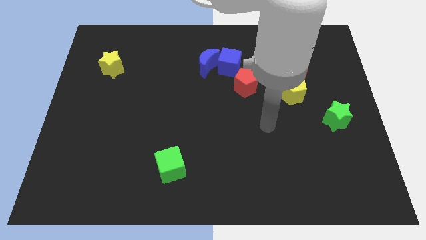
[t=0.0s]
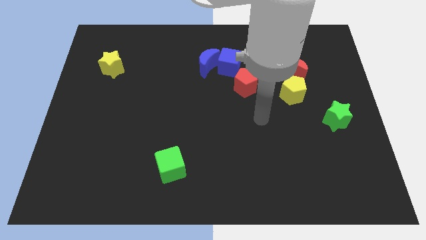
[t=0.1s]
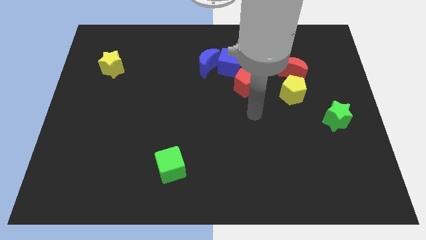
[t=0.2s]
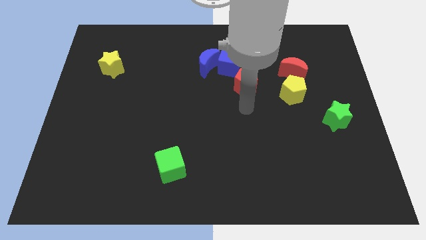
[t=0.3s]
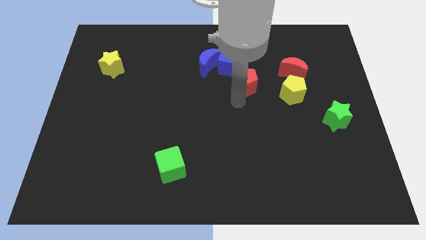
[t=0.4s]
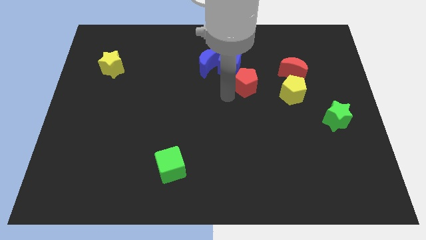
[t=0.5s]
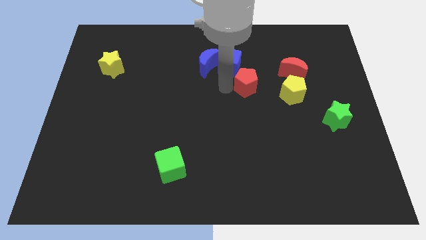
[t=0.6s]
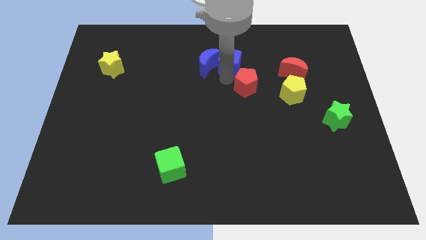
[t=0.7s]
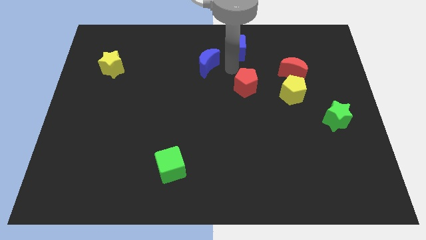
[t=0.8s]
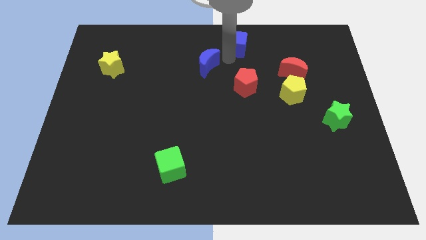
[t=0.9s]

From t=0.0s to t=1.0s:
separate the blue moon from the blue cube

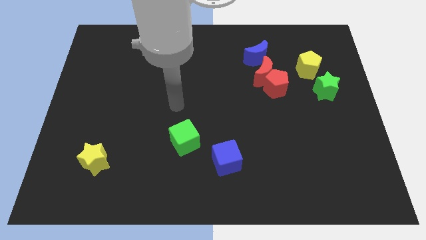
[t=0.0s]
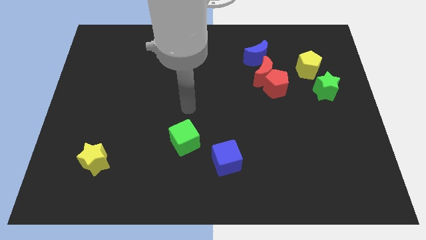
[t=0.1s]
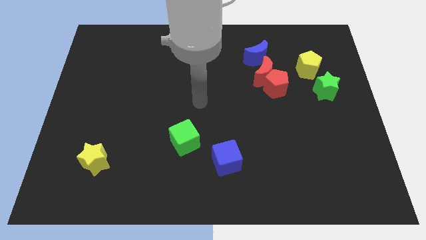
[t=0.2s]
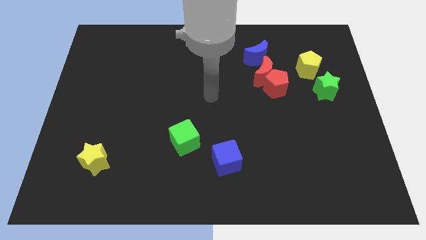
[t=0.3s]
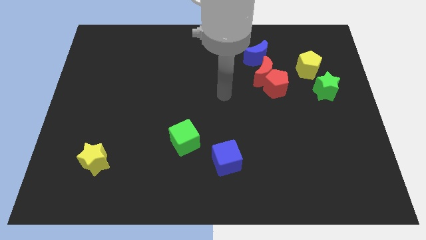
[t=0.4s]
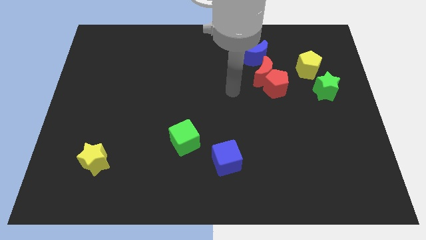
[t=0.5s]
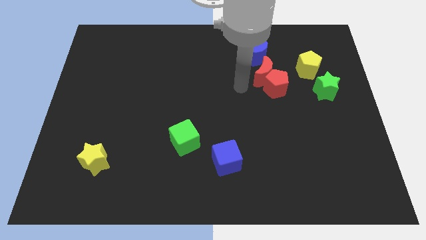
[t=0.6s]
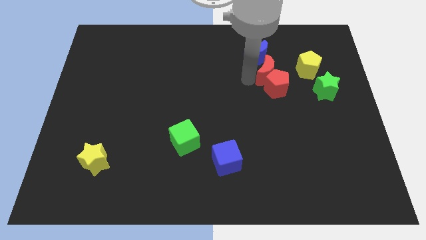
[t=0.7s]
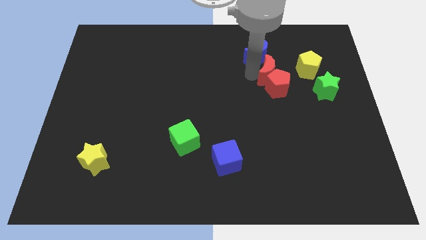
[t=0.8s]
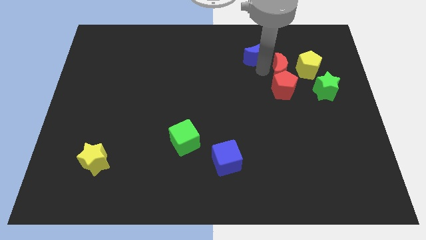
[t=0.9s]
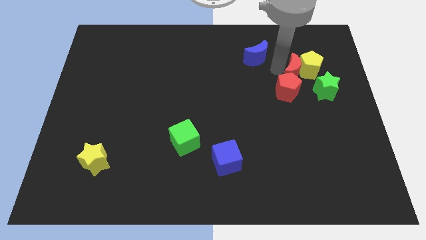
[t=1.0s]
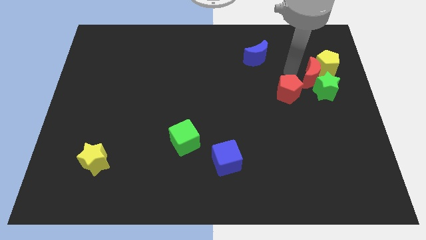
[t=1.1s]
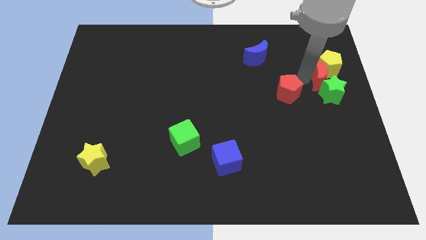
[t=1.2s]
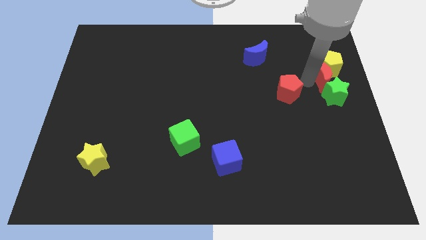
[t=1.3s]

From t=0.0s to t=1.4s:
pull the red pentagon apart from the red moon

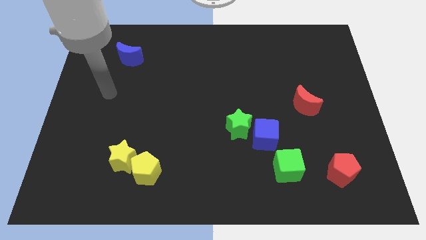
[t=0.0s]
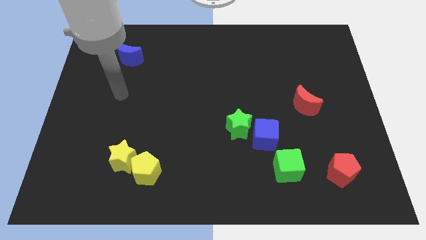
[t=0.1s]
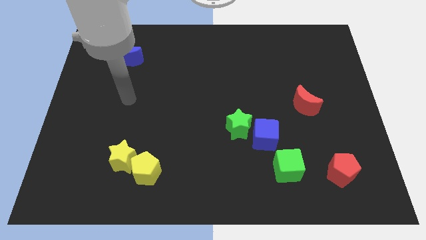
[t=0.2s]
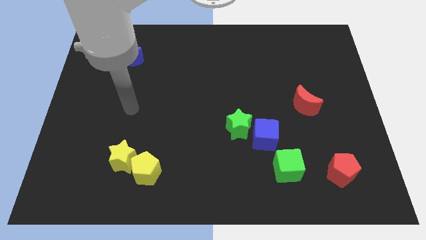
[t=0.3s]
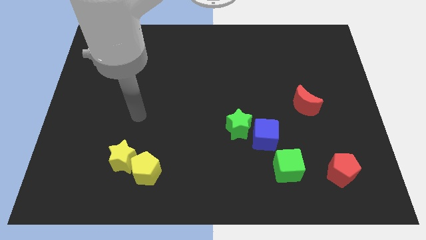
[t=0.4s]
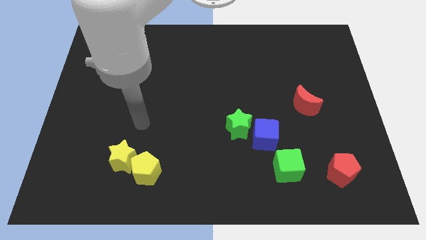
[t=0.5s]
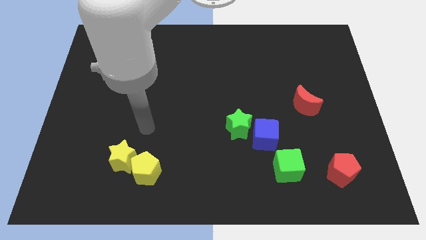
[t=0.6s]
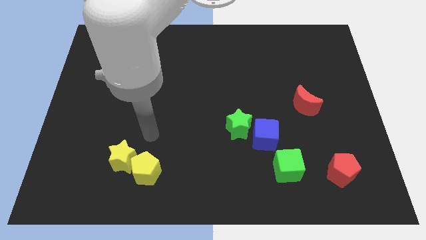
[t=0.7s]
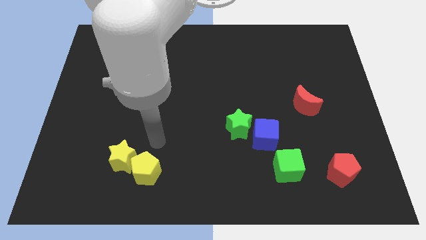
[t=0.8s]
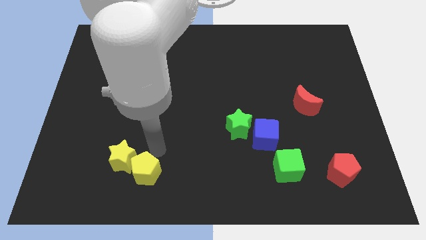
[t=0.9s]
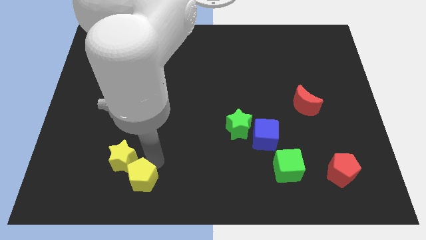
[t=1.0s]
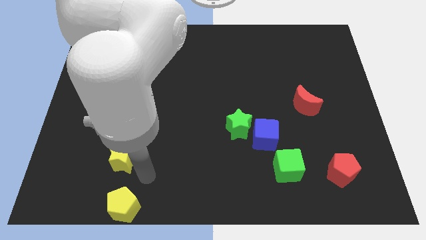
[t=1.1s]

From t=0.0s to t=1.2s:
pull the yellow star apart from the yellow pentagon

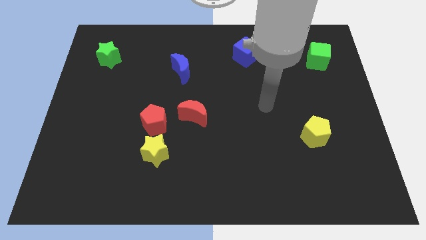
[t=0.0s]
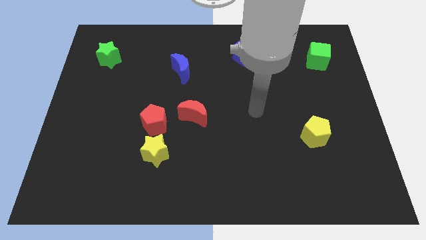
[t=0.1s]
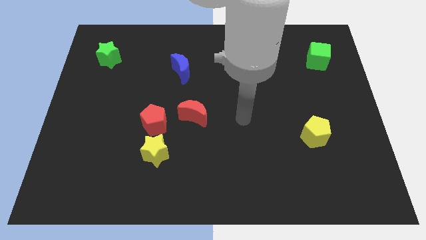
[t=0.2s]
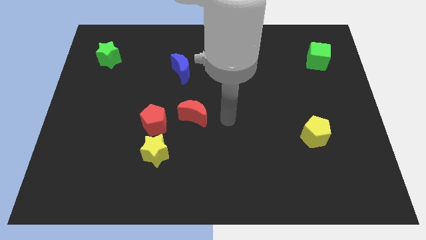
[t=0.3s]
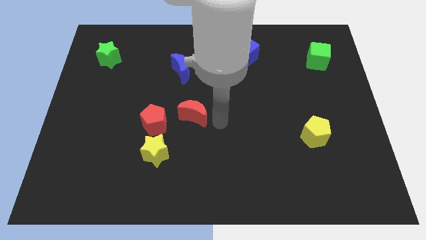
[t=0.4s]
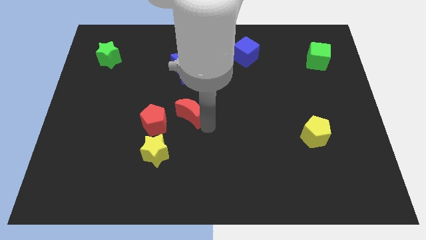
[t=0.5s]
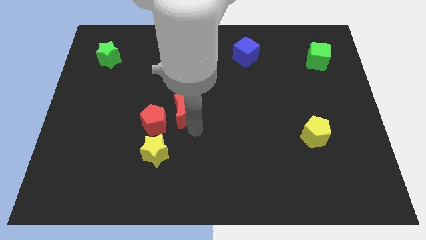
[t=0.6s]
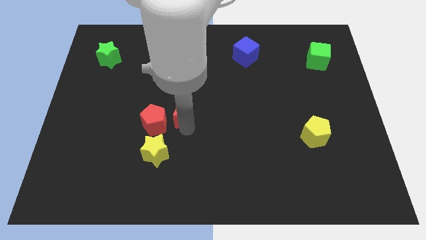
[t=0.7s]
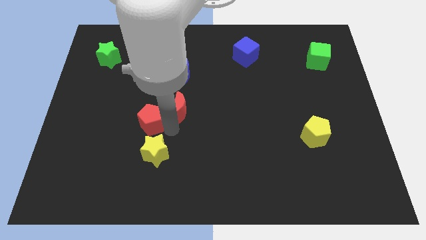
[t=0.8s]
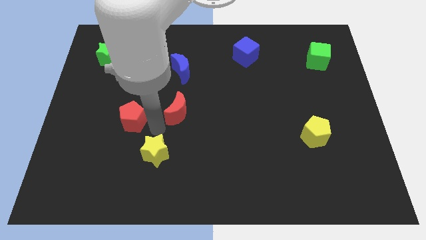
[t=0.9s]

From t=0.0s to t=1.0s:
move the yellow star away from the red pentagon

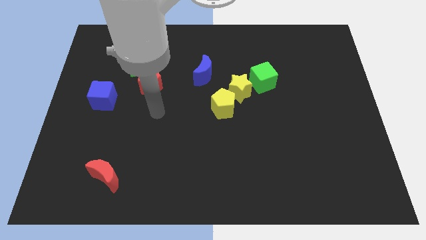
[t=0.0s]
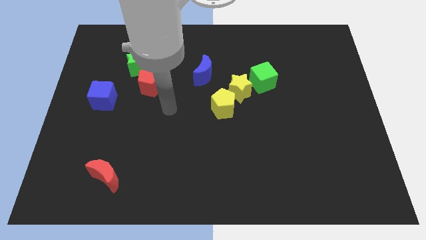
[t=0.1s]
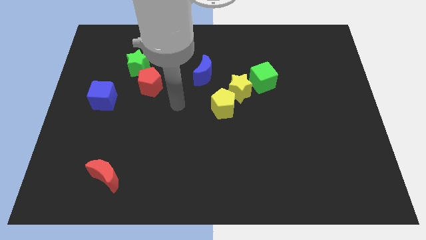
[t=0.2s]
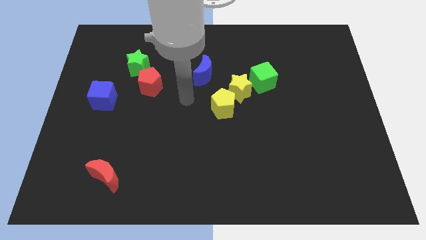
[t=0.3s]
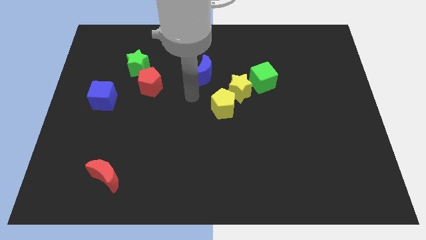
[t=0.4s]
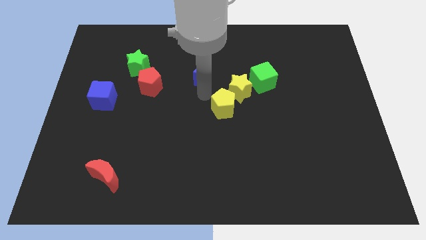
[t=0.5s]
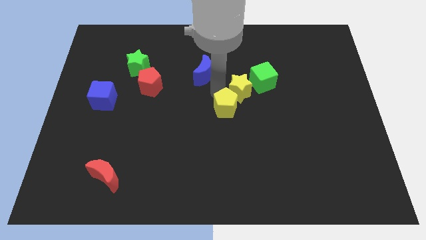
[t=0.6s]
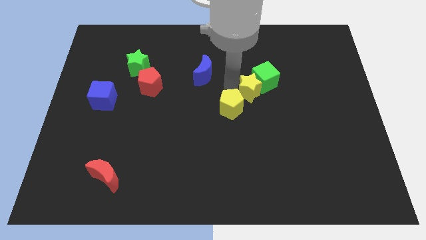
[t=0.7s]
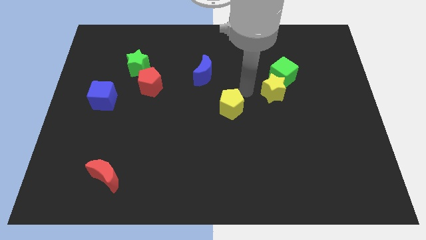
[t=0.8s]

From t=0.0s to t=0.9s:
separate the yellow pentagon from the yellow star

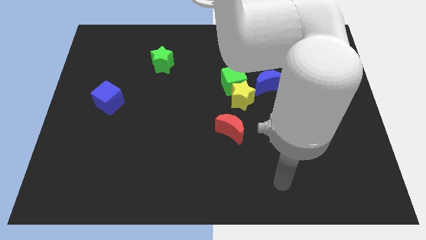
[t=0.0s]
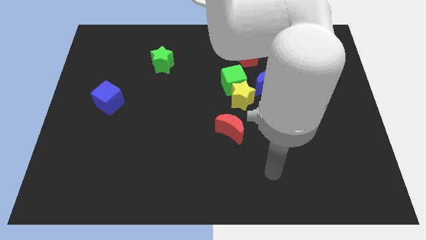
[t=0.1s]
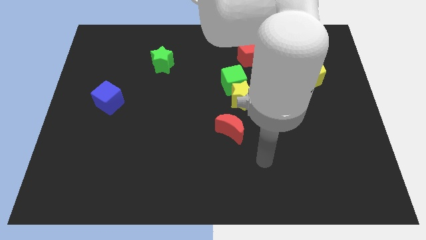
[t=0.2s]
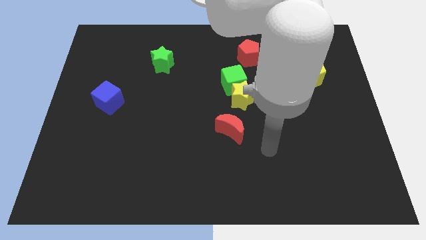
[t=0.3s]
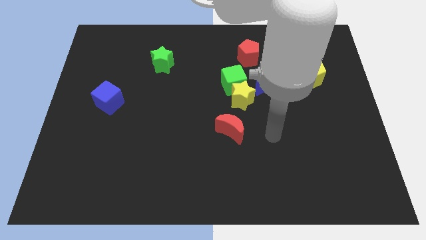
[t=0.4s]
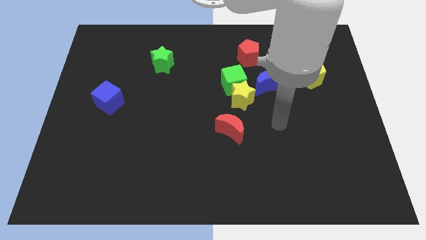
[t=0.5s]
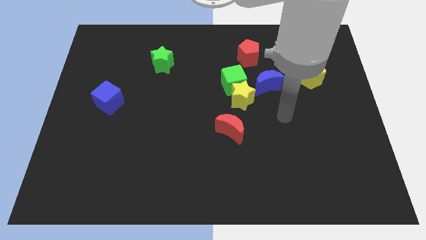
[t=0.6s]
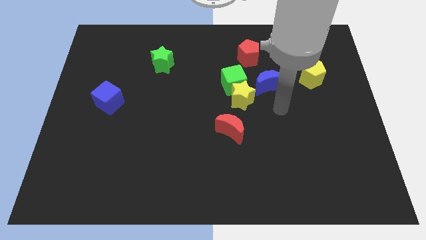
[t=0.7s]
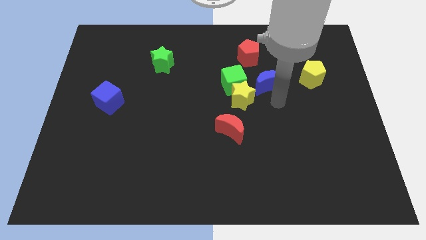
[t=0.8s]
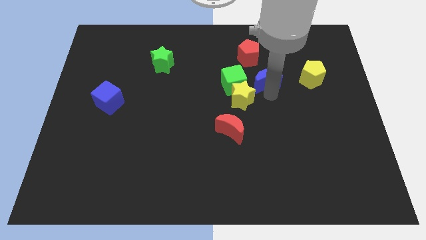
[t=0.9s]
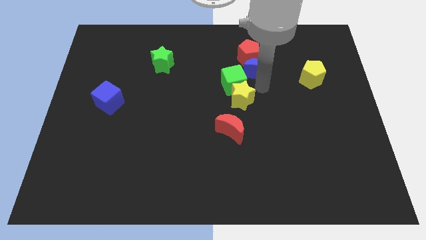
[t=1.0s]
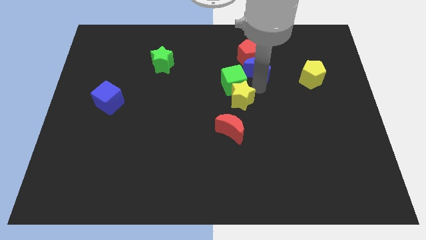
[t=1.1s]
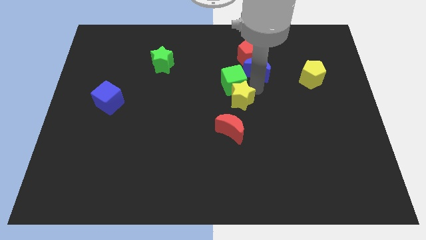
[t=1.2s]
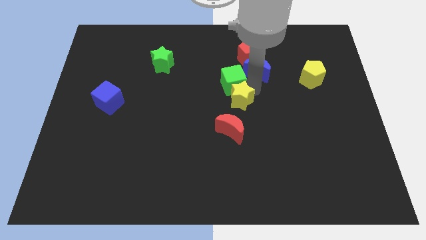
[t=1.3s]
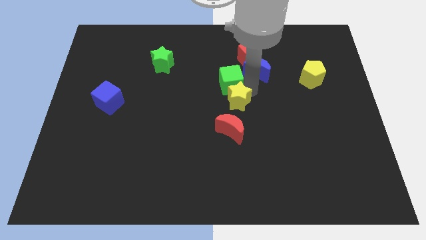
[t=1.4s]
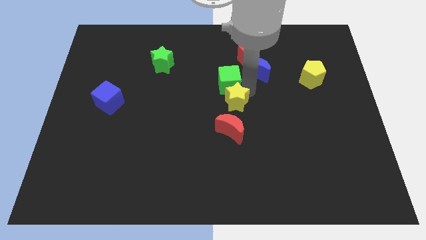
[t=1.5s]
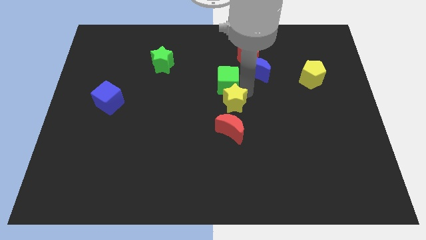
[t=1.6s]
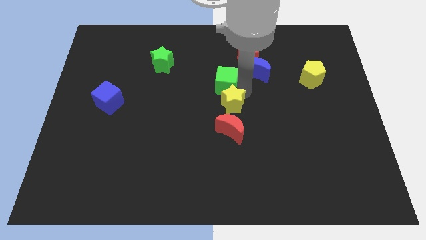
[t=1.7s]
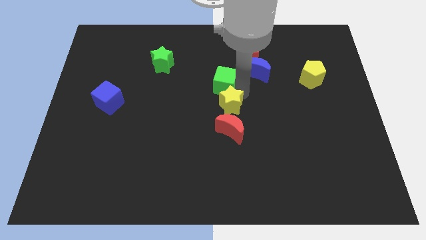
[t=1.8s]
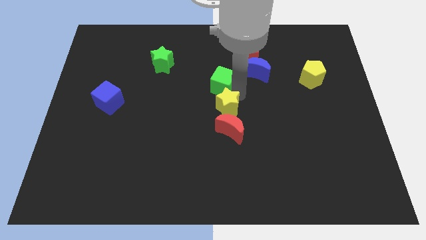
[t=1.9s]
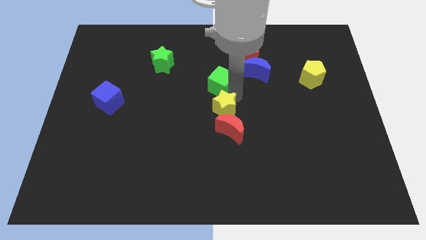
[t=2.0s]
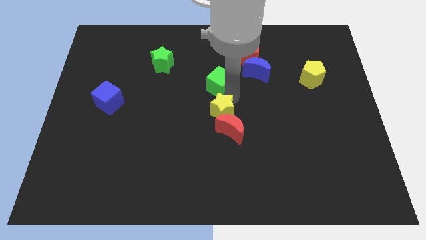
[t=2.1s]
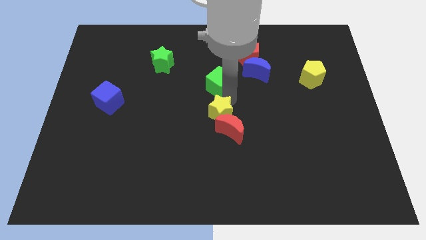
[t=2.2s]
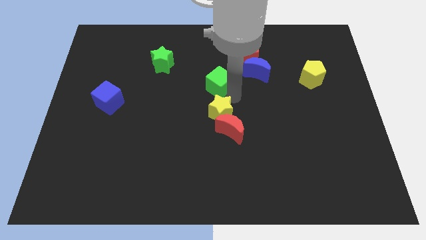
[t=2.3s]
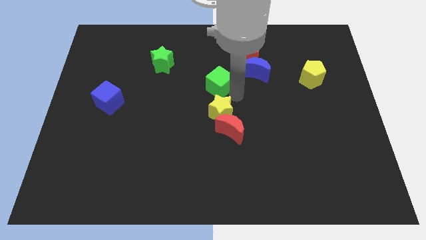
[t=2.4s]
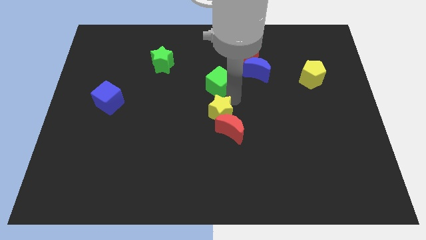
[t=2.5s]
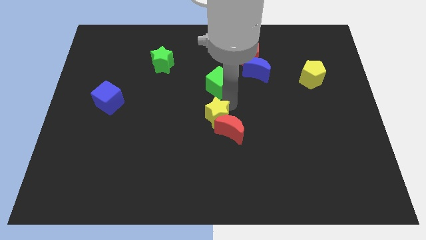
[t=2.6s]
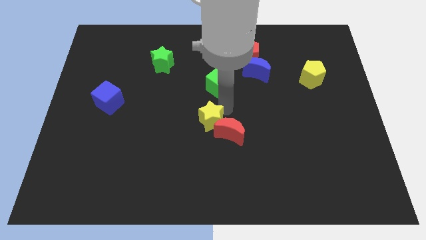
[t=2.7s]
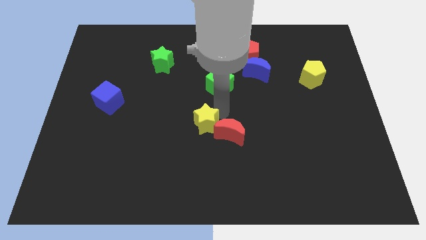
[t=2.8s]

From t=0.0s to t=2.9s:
separate the yellow star from the clump

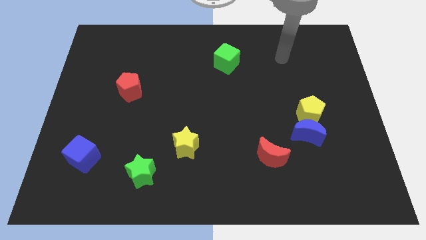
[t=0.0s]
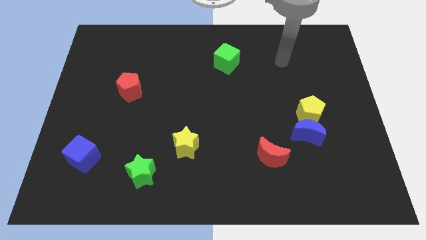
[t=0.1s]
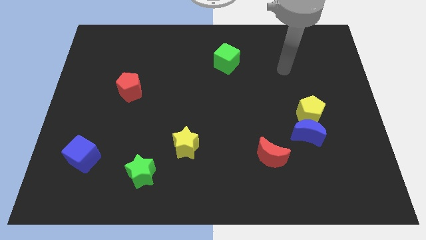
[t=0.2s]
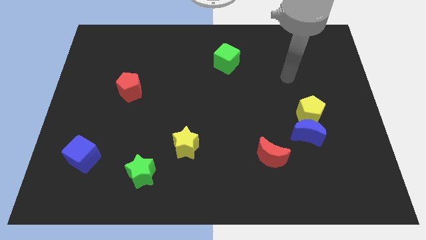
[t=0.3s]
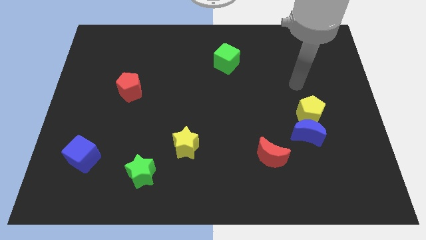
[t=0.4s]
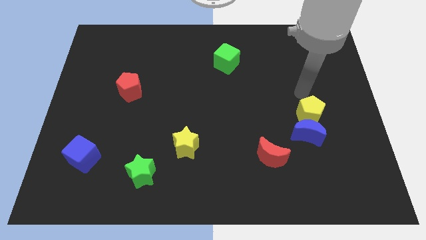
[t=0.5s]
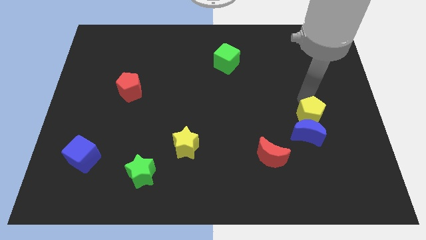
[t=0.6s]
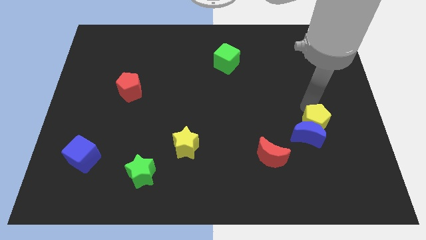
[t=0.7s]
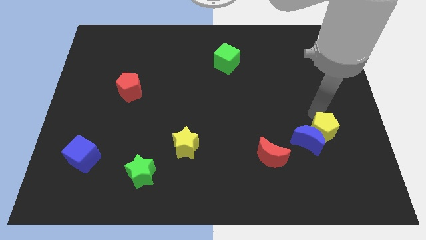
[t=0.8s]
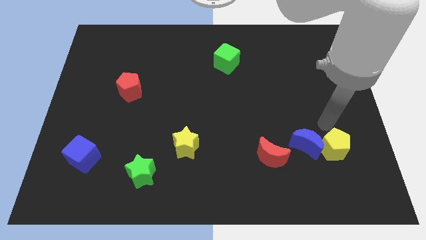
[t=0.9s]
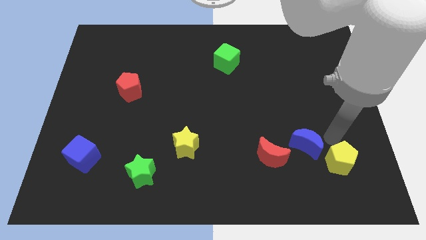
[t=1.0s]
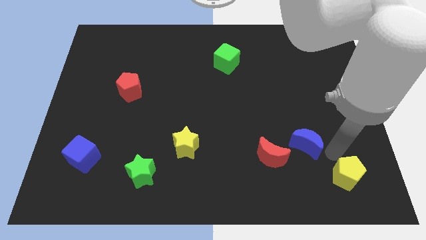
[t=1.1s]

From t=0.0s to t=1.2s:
move the blue moon away from the yellow pentagon
